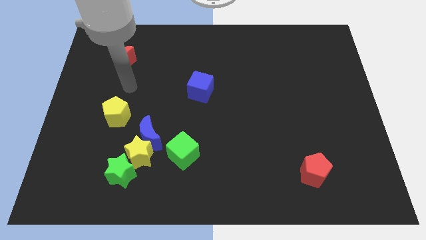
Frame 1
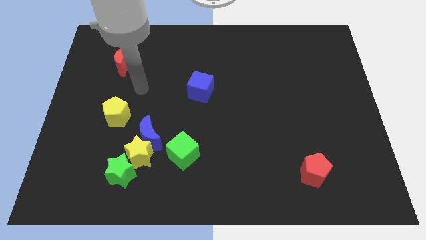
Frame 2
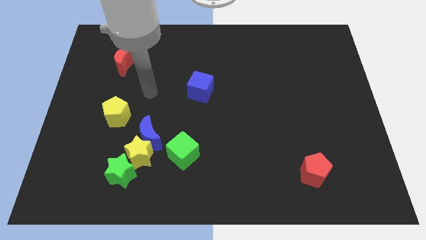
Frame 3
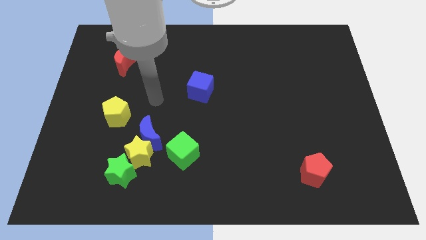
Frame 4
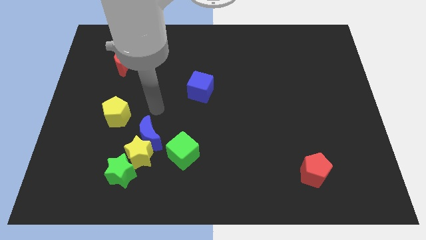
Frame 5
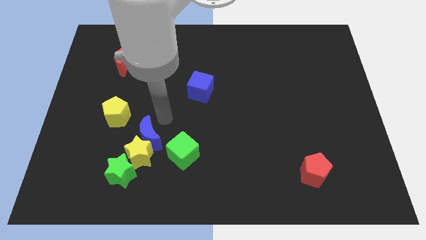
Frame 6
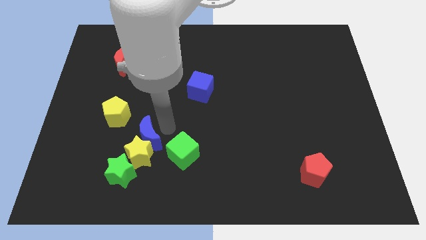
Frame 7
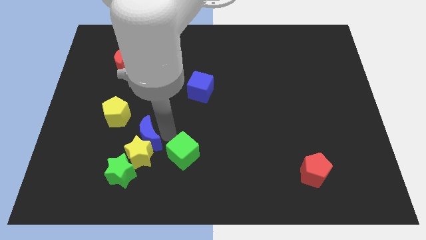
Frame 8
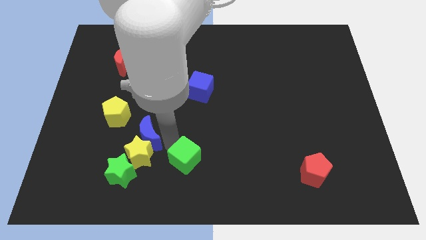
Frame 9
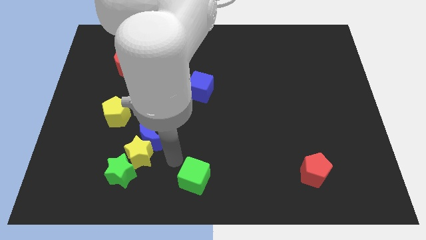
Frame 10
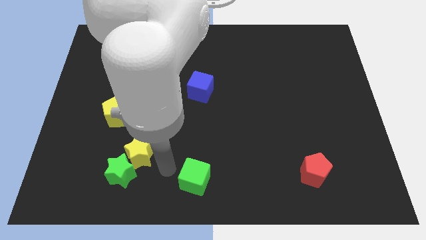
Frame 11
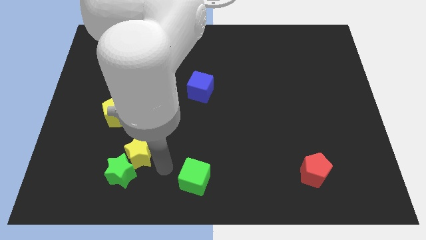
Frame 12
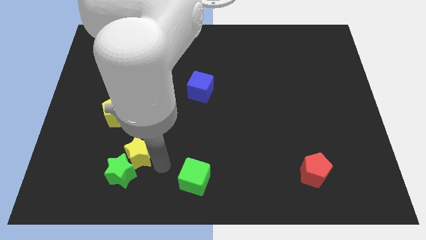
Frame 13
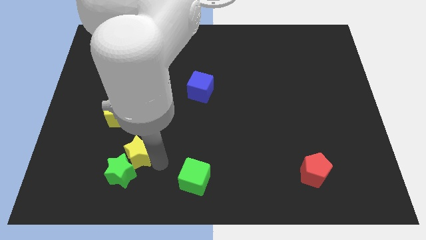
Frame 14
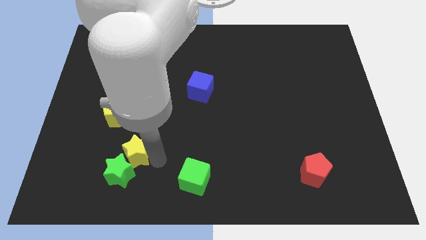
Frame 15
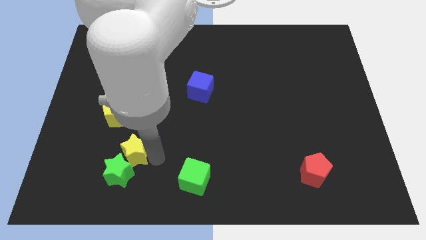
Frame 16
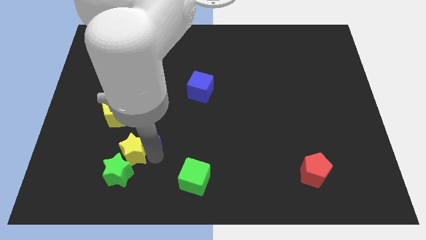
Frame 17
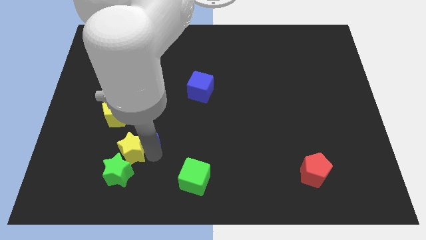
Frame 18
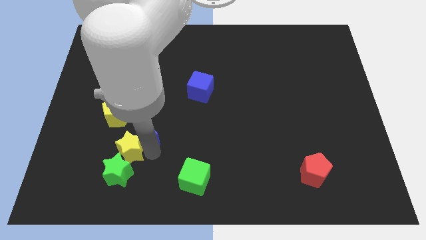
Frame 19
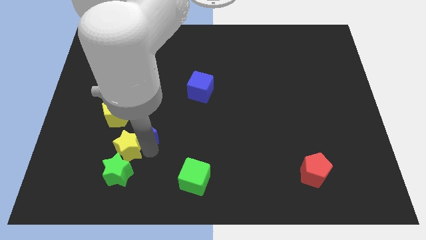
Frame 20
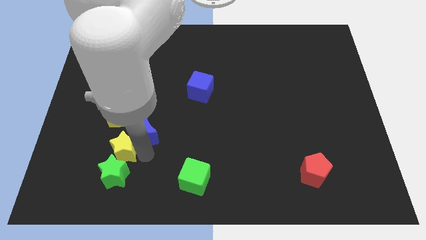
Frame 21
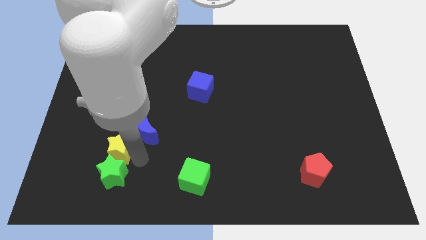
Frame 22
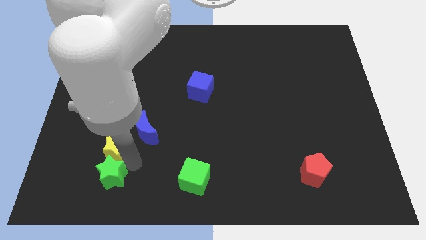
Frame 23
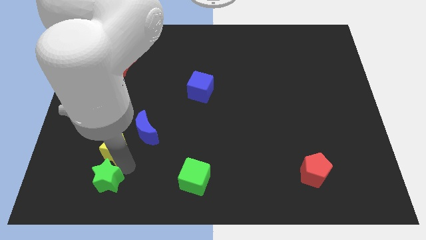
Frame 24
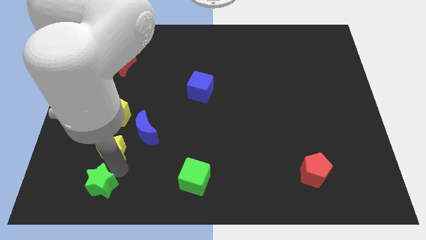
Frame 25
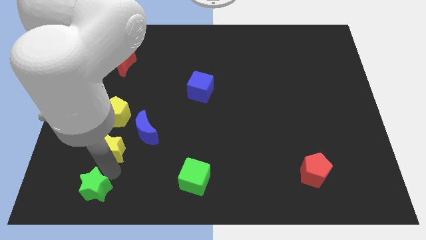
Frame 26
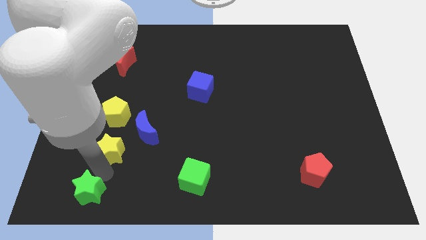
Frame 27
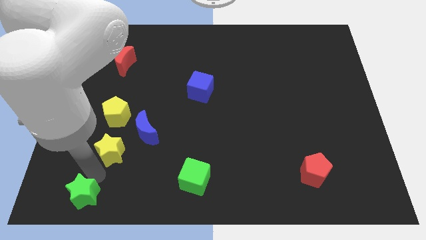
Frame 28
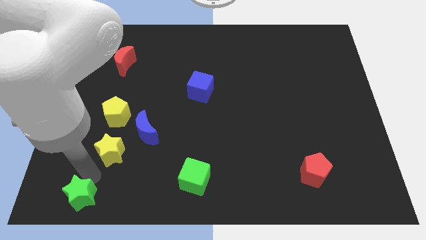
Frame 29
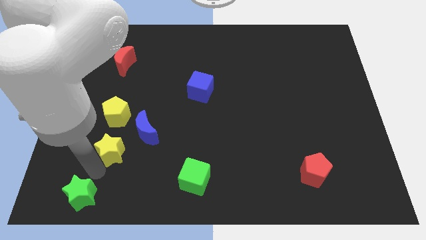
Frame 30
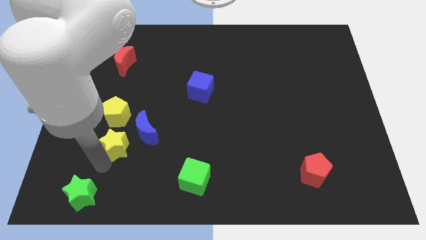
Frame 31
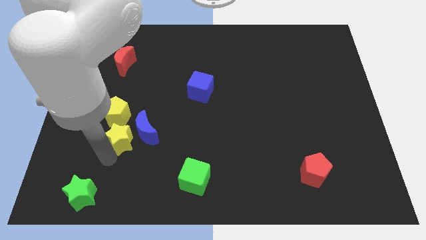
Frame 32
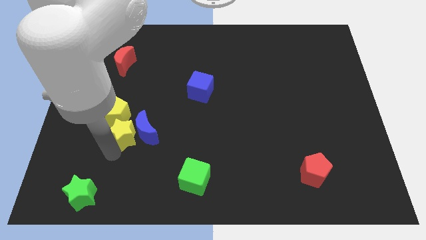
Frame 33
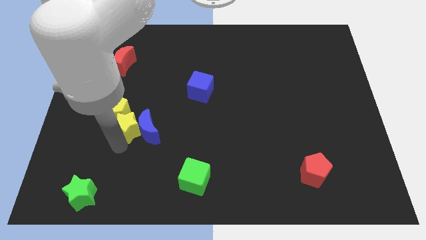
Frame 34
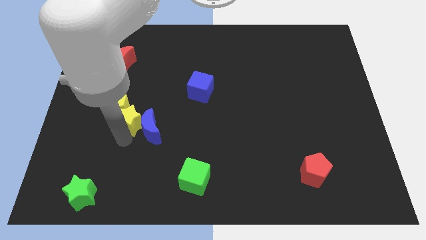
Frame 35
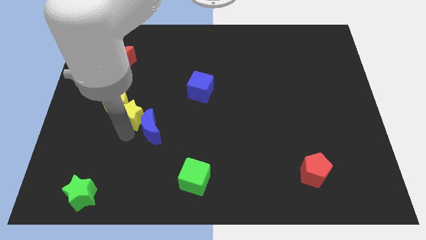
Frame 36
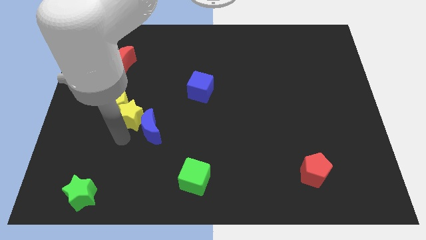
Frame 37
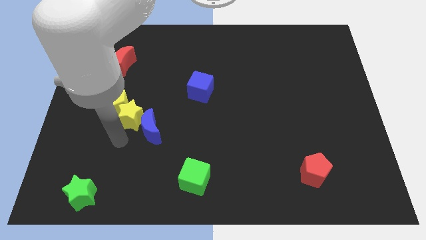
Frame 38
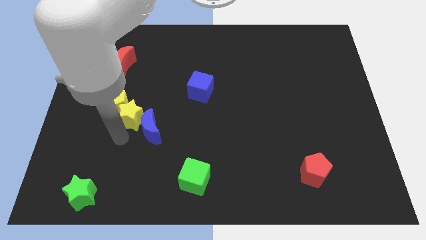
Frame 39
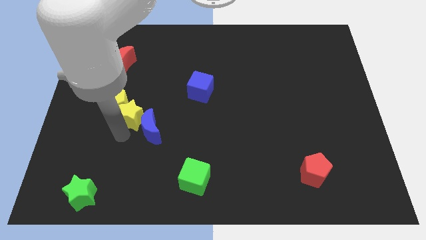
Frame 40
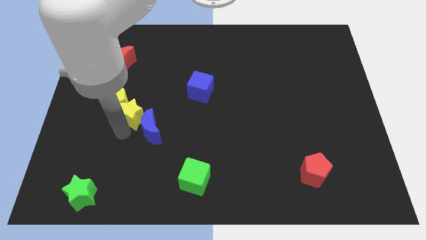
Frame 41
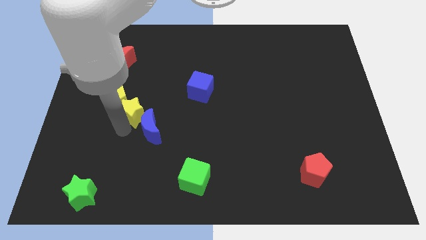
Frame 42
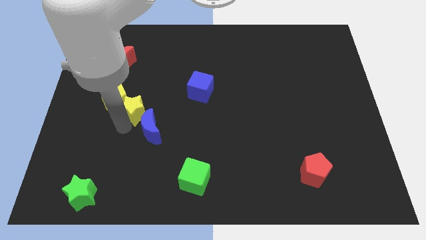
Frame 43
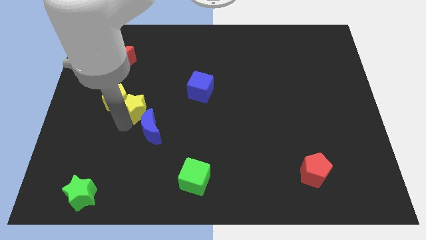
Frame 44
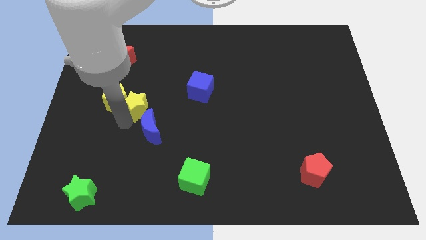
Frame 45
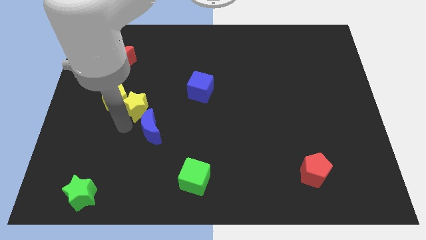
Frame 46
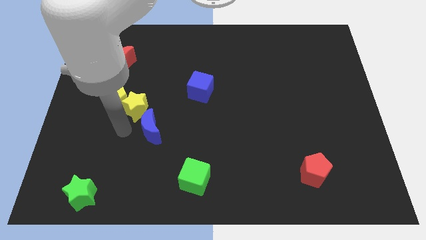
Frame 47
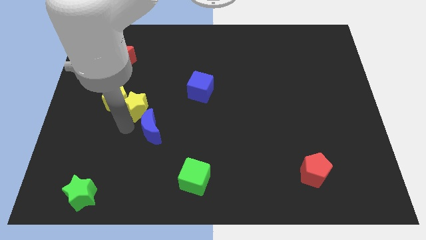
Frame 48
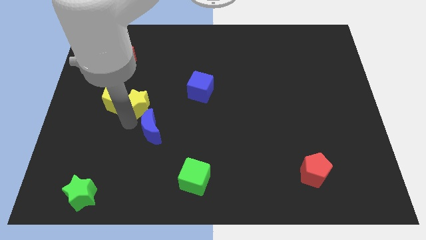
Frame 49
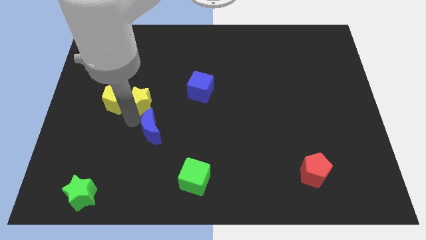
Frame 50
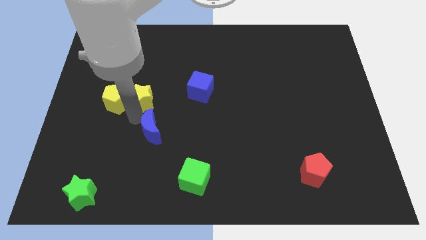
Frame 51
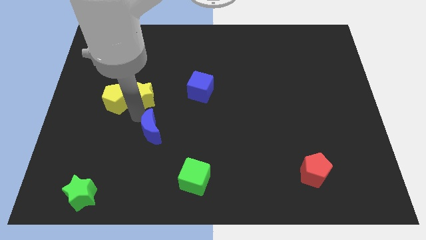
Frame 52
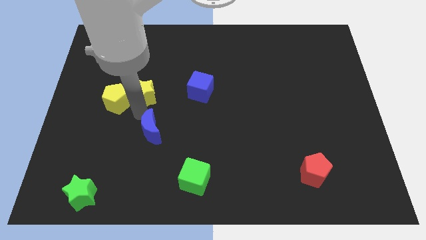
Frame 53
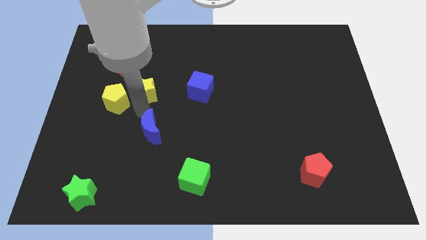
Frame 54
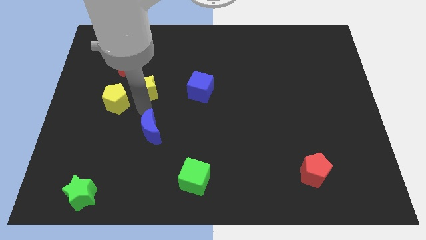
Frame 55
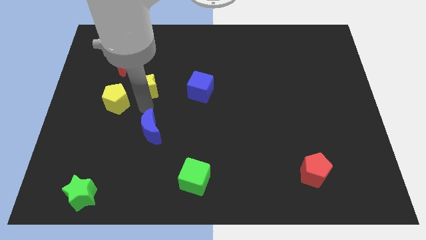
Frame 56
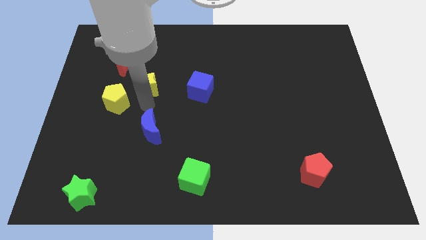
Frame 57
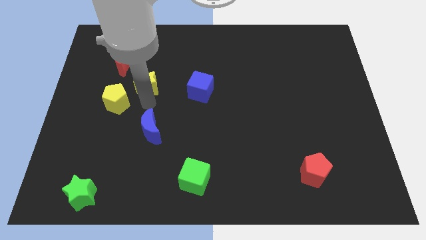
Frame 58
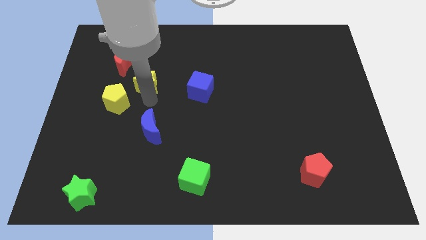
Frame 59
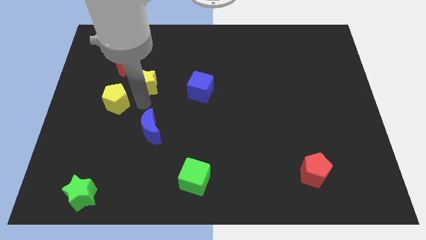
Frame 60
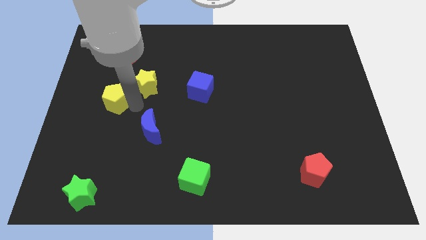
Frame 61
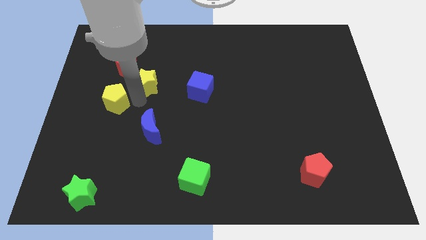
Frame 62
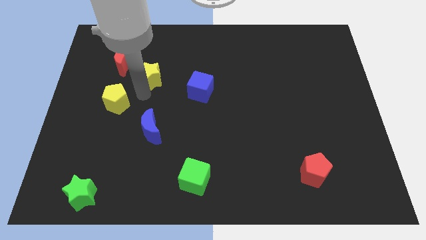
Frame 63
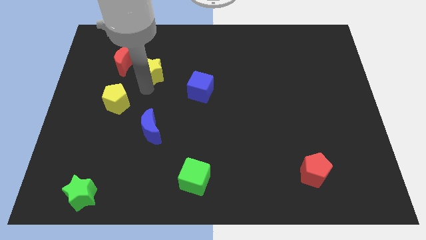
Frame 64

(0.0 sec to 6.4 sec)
slide the yellow star to the right of the red moon
